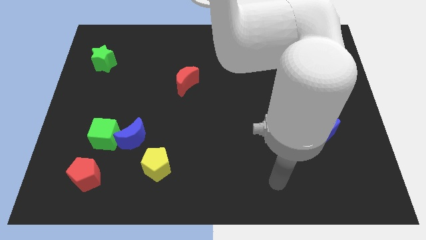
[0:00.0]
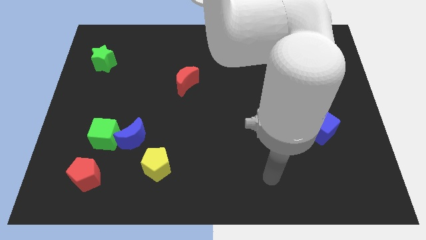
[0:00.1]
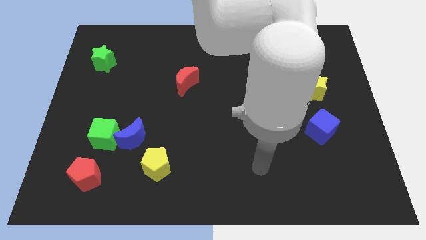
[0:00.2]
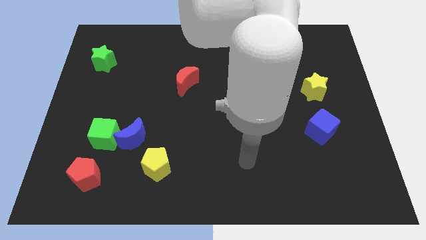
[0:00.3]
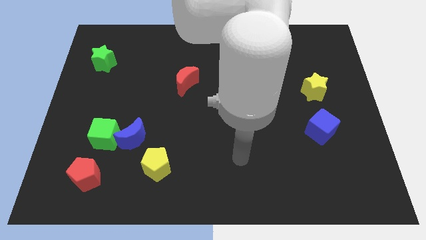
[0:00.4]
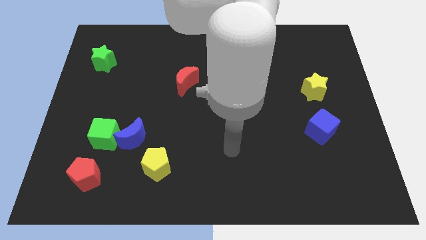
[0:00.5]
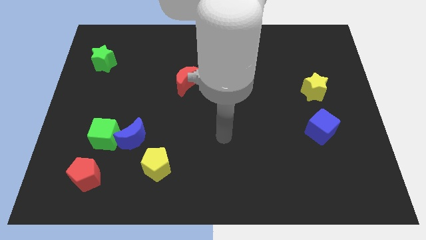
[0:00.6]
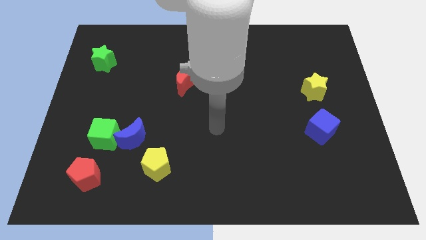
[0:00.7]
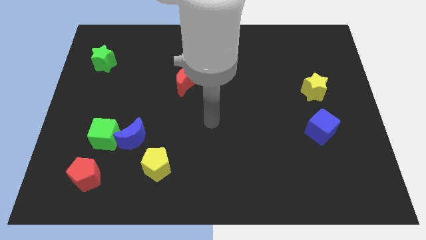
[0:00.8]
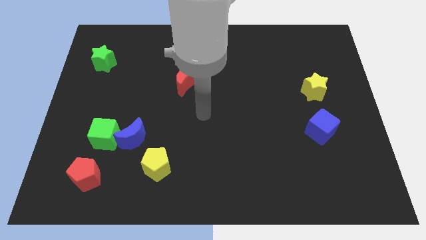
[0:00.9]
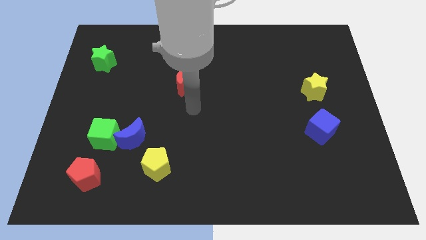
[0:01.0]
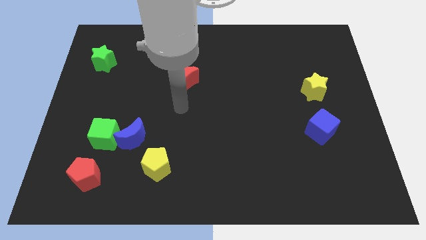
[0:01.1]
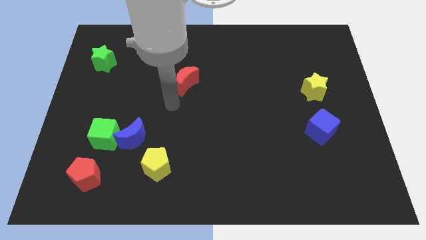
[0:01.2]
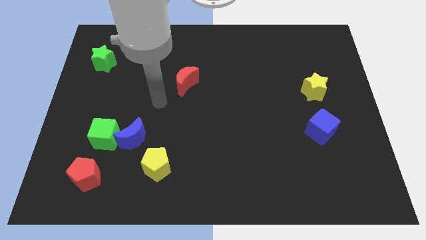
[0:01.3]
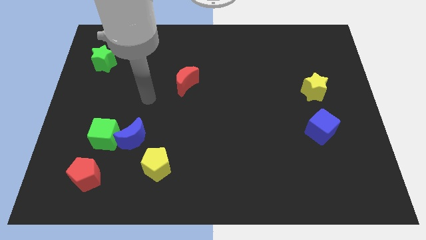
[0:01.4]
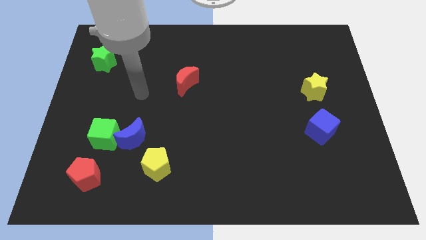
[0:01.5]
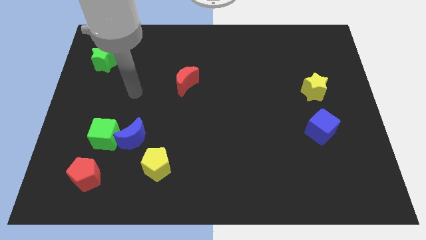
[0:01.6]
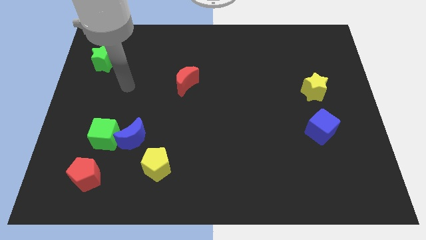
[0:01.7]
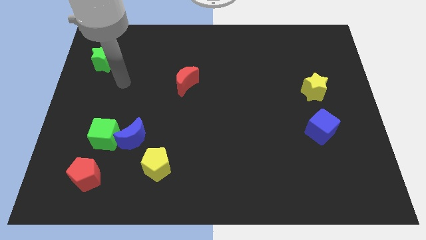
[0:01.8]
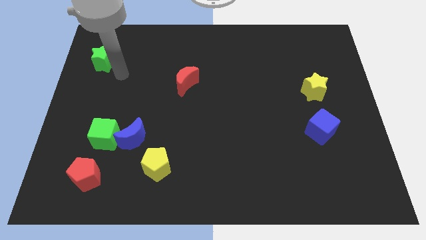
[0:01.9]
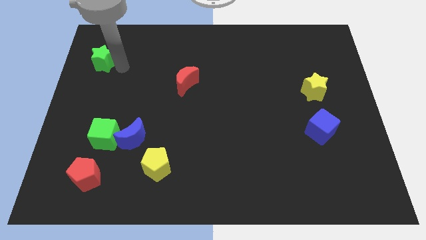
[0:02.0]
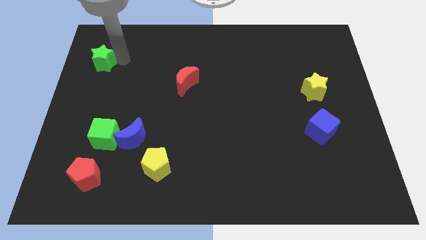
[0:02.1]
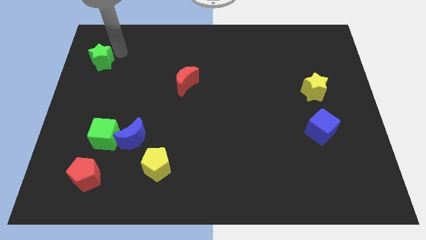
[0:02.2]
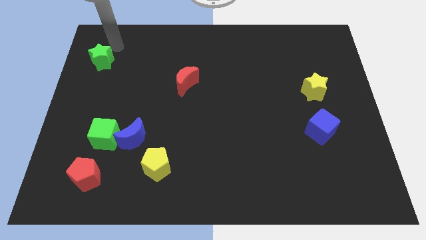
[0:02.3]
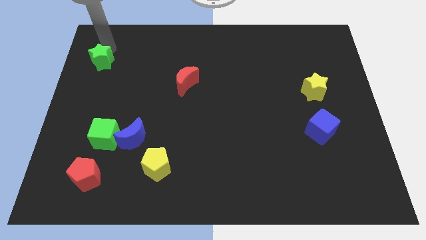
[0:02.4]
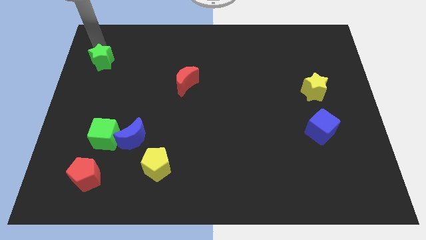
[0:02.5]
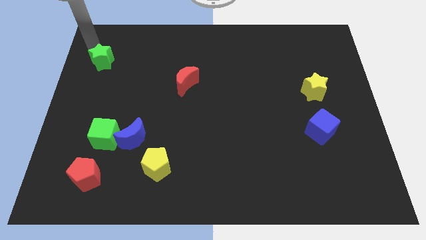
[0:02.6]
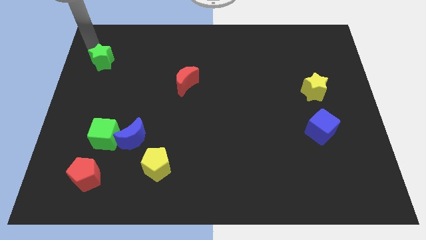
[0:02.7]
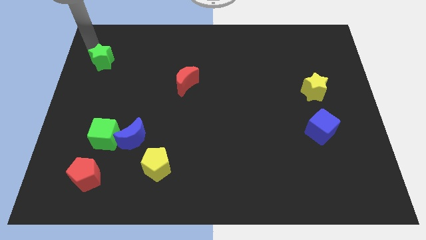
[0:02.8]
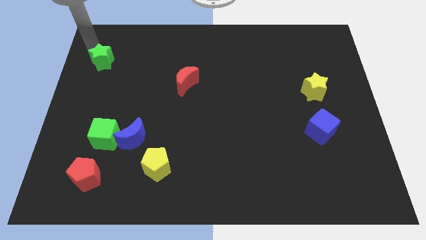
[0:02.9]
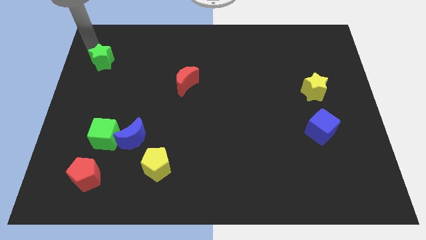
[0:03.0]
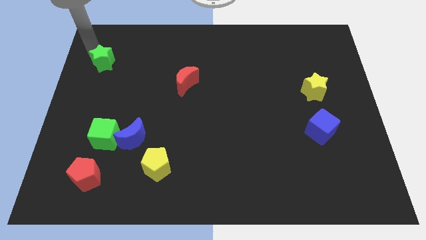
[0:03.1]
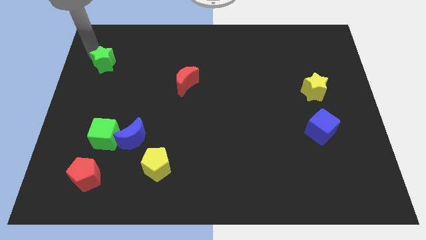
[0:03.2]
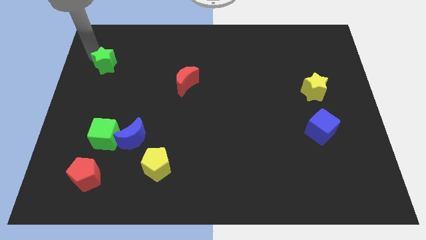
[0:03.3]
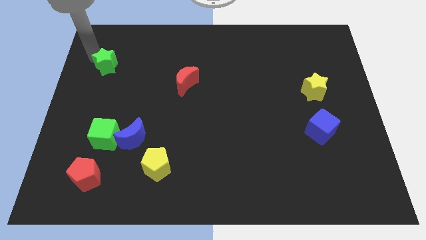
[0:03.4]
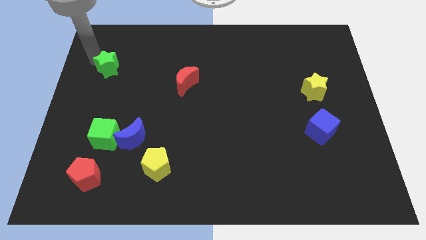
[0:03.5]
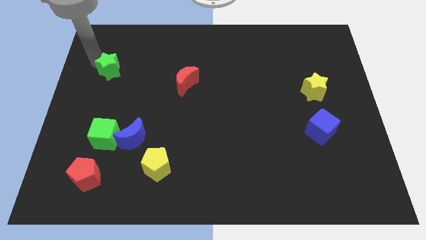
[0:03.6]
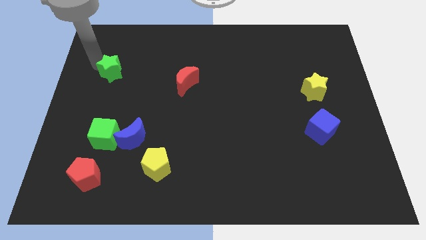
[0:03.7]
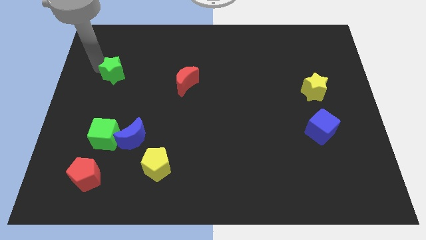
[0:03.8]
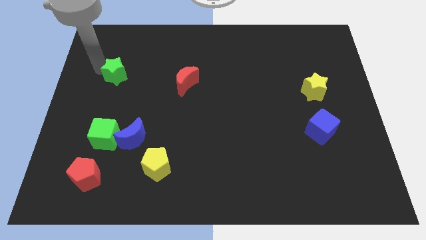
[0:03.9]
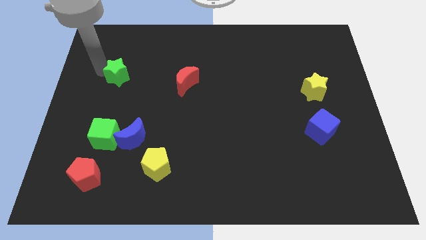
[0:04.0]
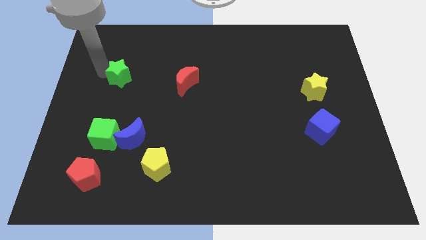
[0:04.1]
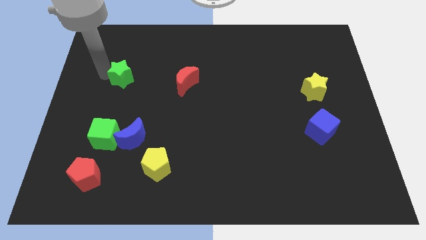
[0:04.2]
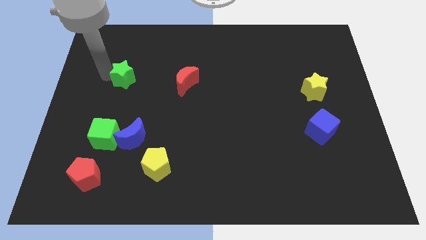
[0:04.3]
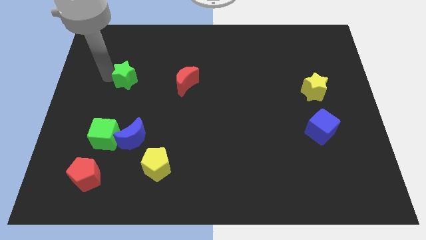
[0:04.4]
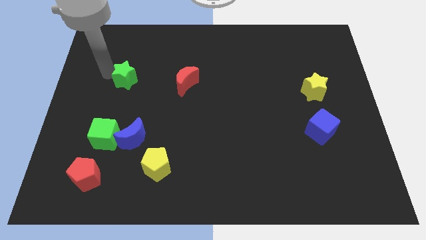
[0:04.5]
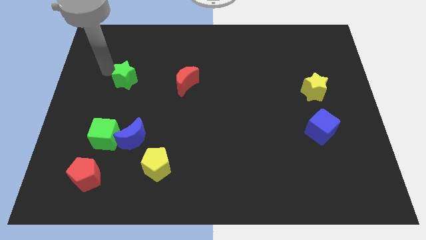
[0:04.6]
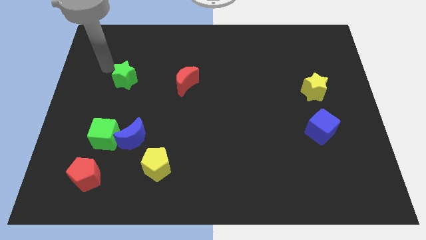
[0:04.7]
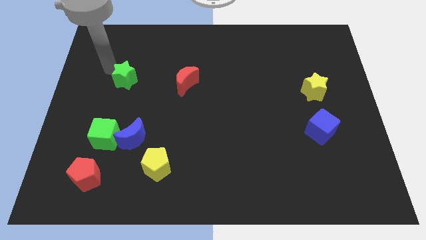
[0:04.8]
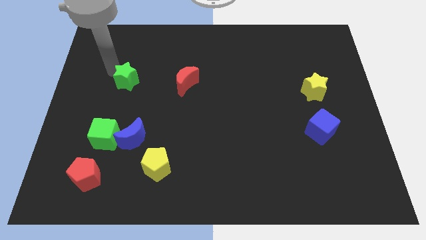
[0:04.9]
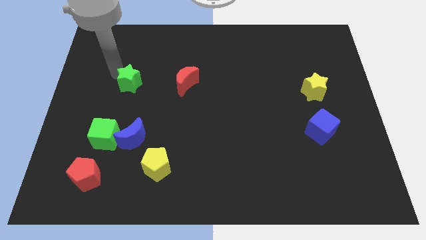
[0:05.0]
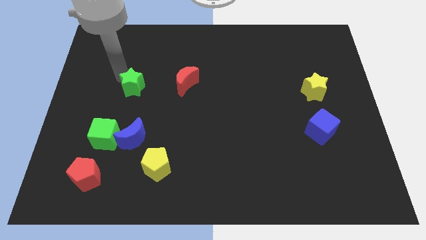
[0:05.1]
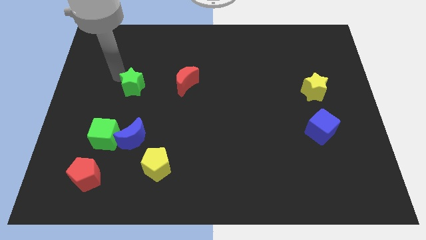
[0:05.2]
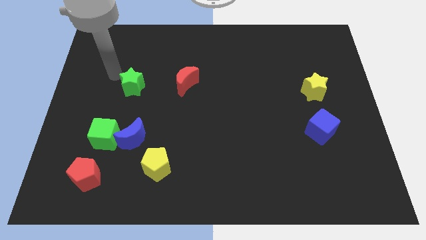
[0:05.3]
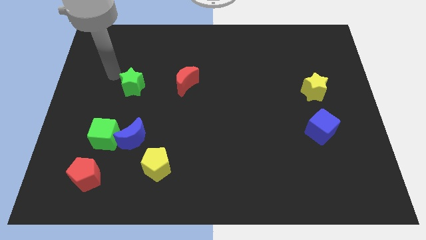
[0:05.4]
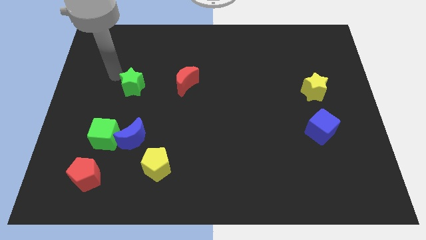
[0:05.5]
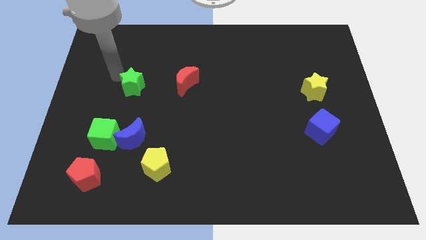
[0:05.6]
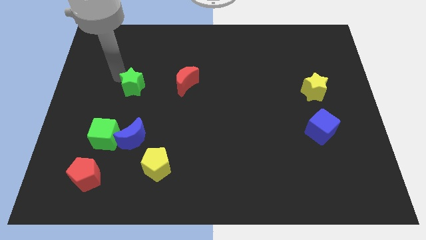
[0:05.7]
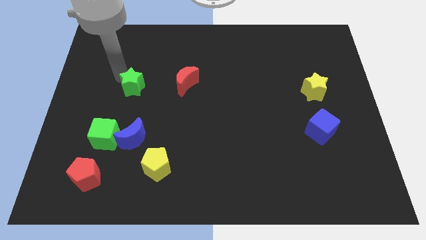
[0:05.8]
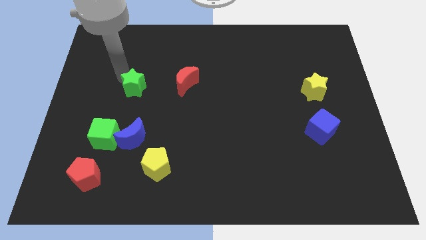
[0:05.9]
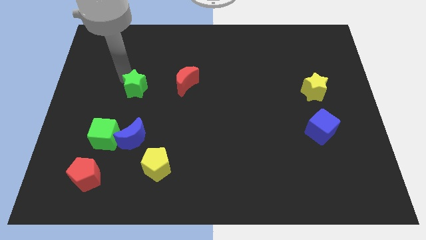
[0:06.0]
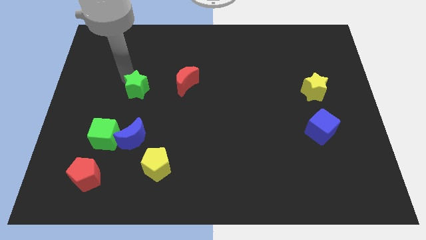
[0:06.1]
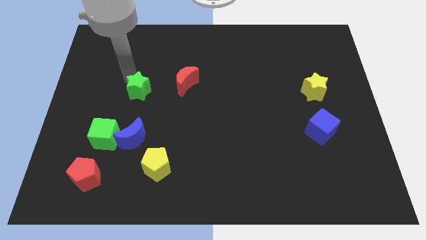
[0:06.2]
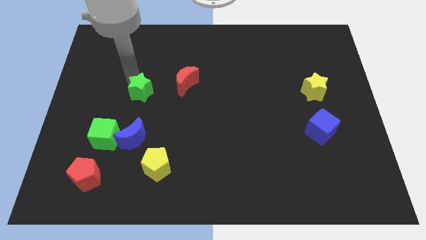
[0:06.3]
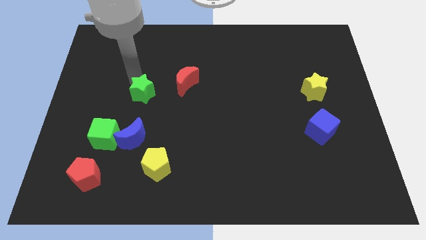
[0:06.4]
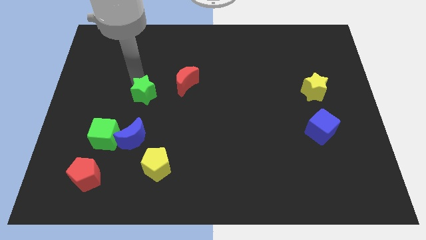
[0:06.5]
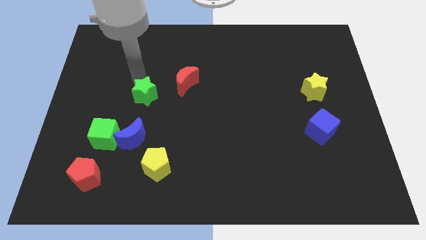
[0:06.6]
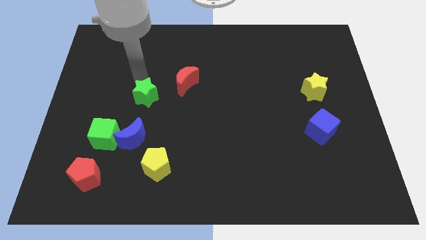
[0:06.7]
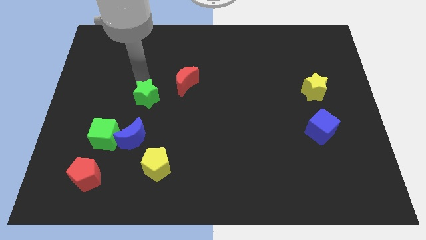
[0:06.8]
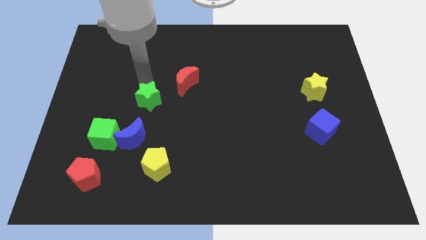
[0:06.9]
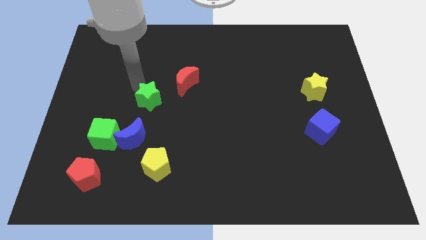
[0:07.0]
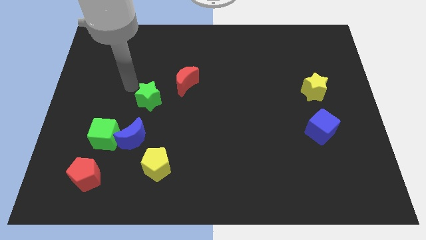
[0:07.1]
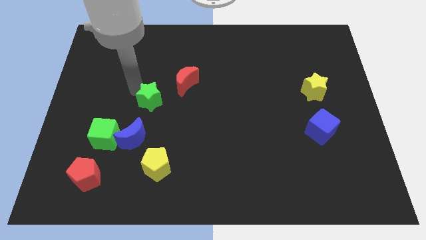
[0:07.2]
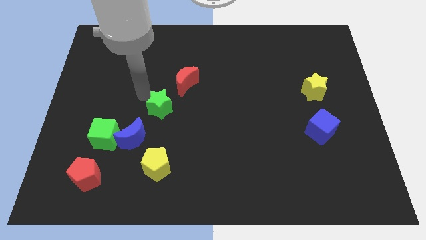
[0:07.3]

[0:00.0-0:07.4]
slide the green star diagonally down and right

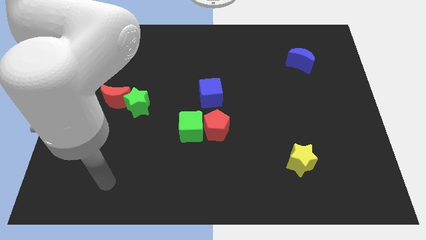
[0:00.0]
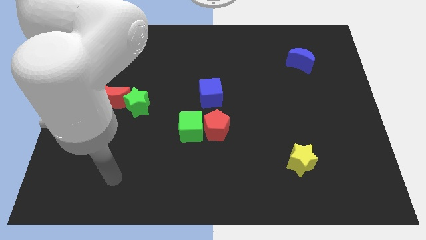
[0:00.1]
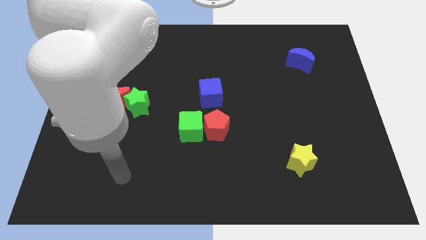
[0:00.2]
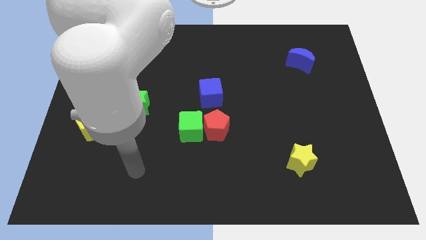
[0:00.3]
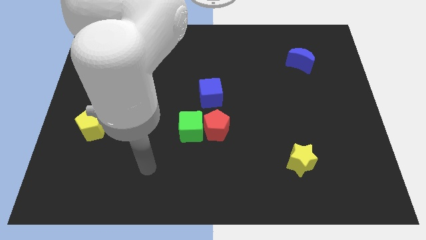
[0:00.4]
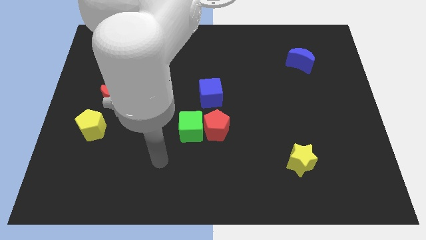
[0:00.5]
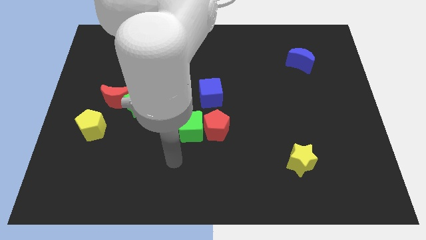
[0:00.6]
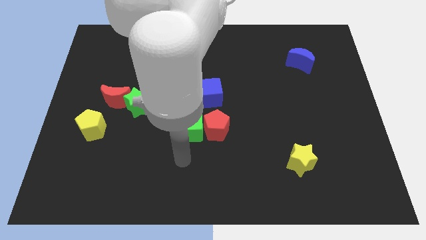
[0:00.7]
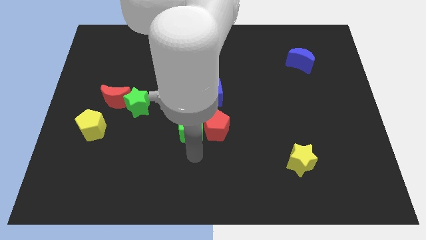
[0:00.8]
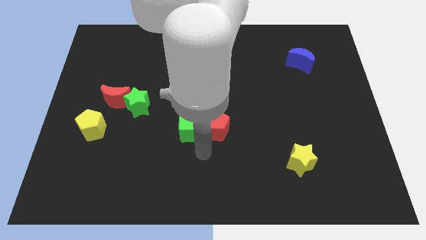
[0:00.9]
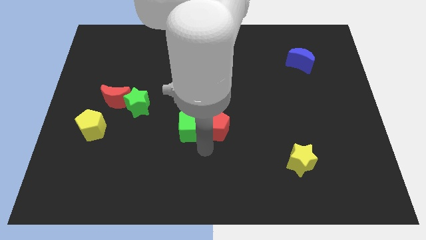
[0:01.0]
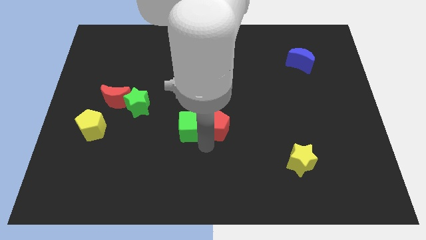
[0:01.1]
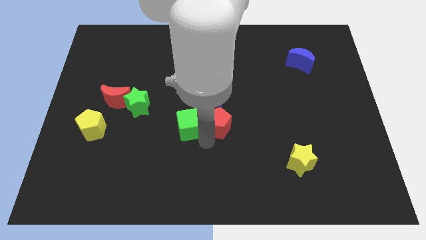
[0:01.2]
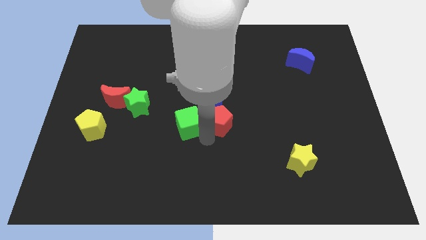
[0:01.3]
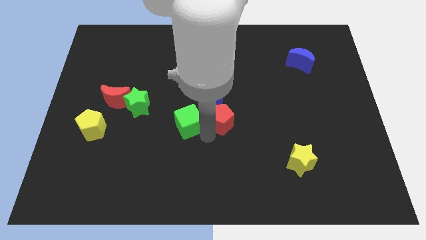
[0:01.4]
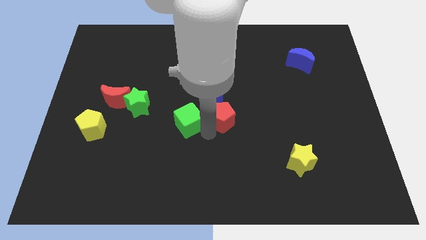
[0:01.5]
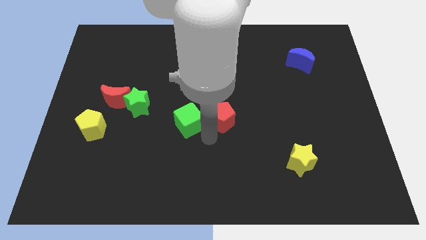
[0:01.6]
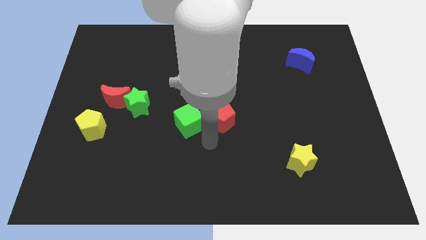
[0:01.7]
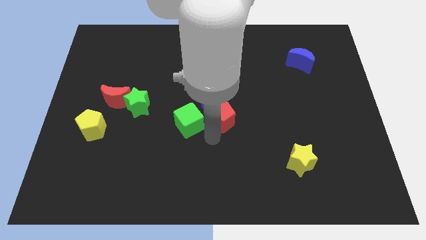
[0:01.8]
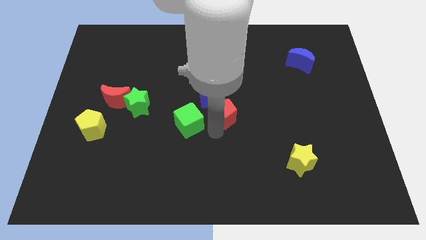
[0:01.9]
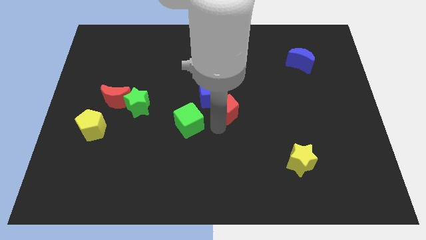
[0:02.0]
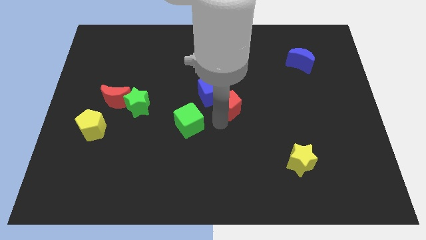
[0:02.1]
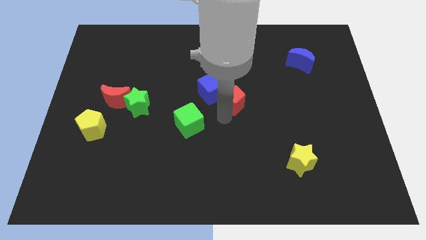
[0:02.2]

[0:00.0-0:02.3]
slide the red pentagon a bit up
